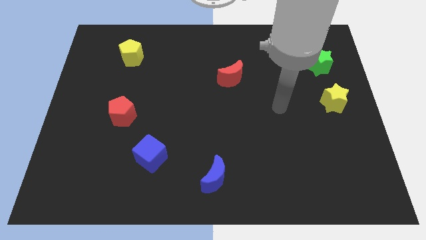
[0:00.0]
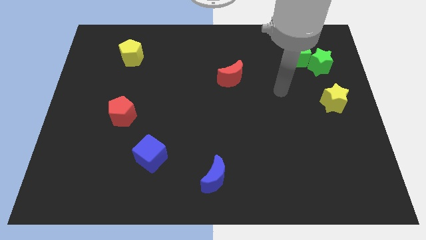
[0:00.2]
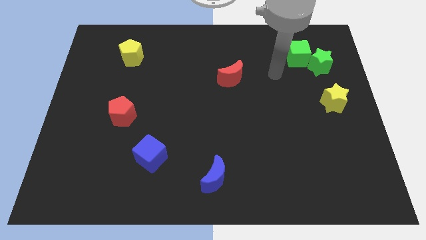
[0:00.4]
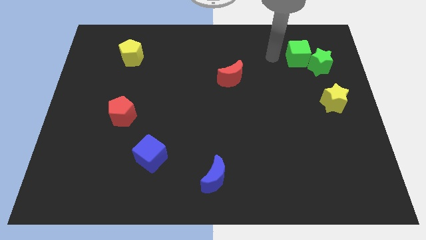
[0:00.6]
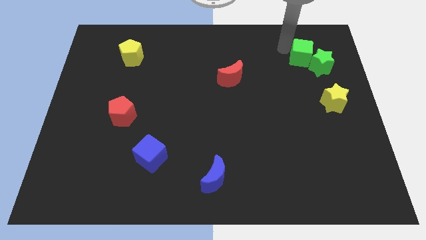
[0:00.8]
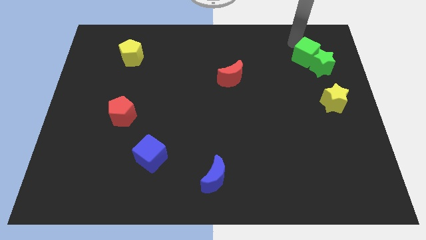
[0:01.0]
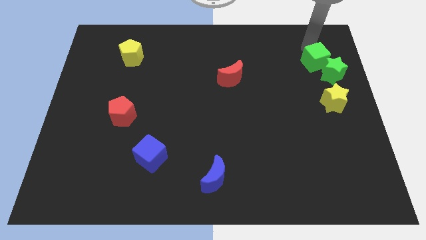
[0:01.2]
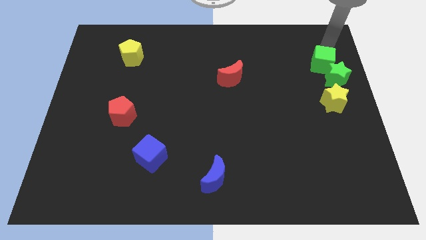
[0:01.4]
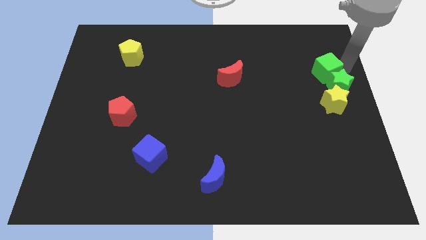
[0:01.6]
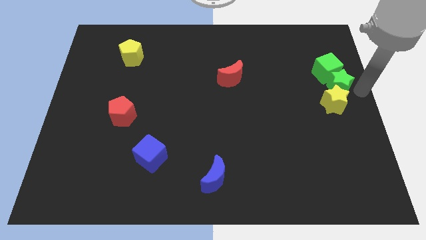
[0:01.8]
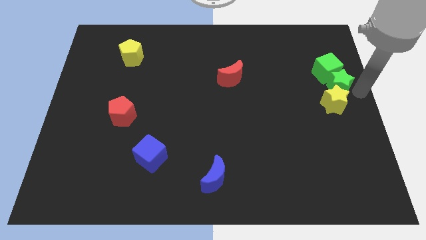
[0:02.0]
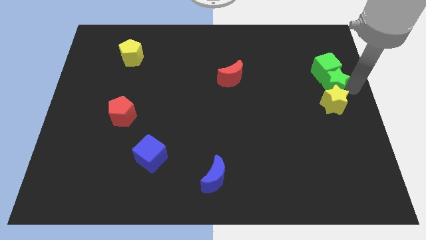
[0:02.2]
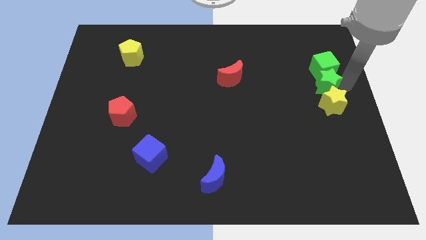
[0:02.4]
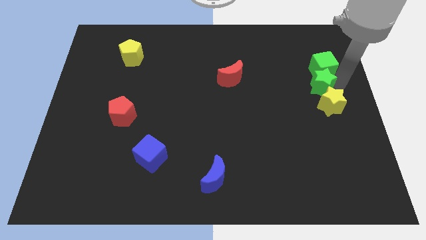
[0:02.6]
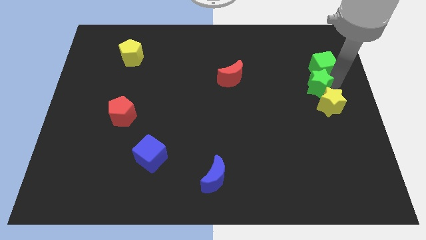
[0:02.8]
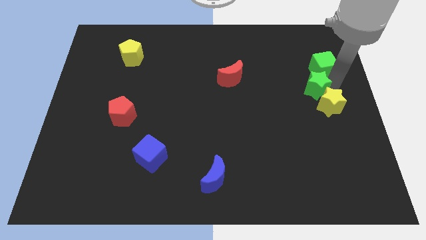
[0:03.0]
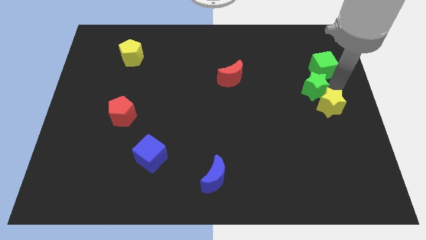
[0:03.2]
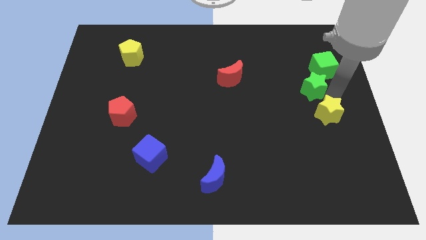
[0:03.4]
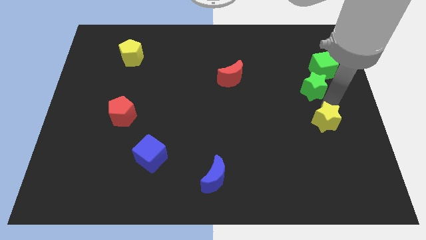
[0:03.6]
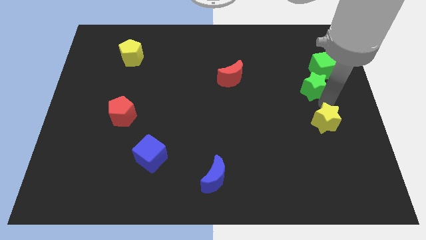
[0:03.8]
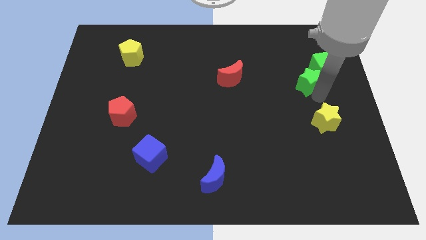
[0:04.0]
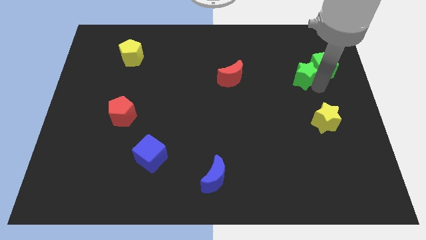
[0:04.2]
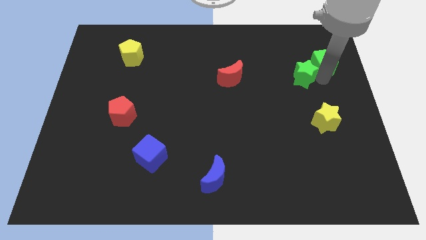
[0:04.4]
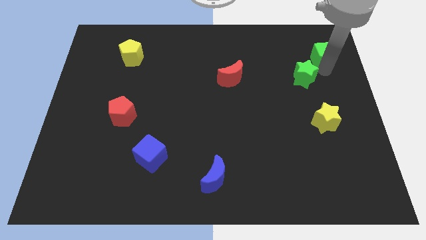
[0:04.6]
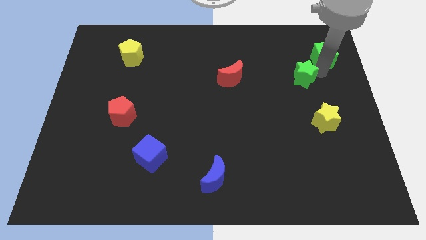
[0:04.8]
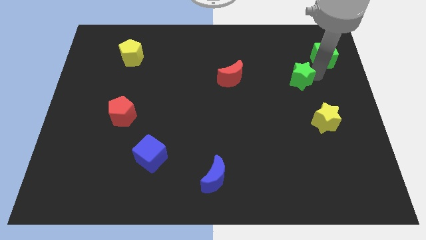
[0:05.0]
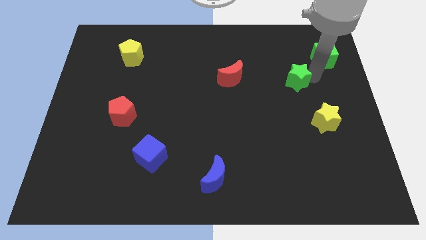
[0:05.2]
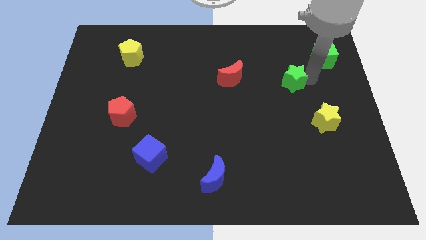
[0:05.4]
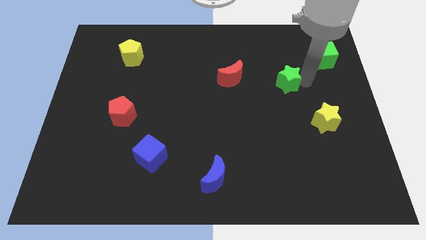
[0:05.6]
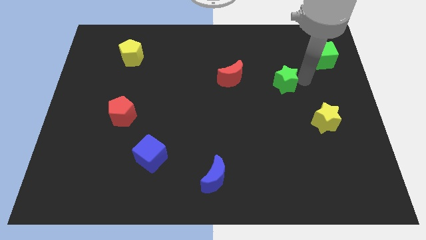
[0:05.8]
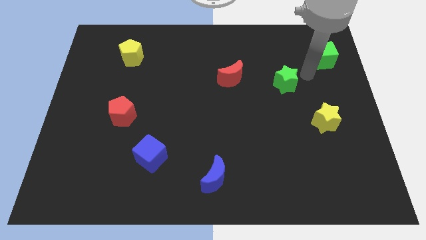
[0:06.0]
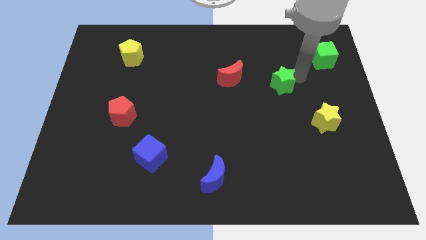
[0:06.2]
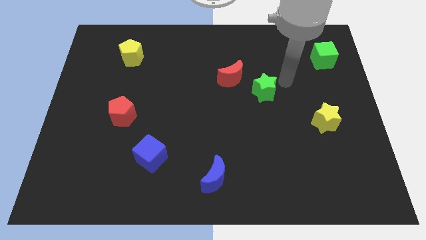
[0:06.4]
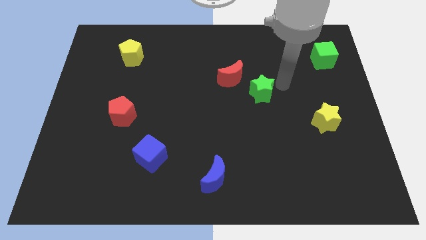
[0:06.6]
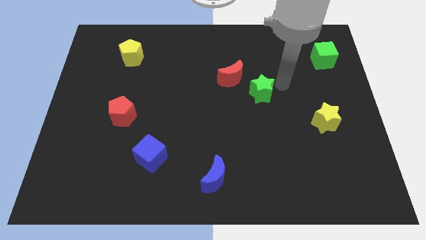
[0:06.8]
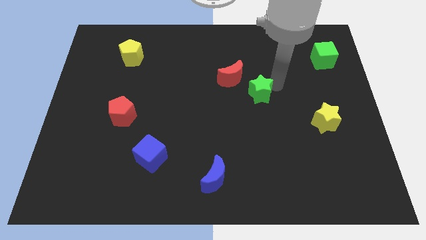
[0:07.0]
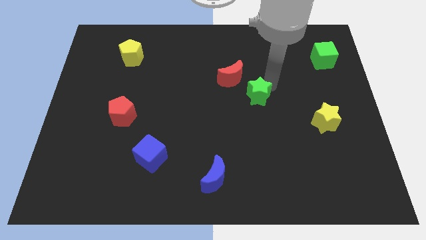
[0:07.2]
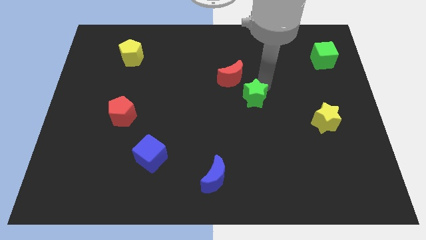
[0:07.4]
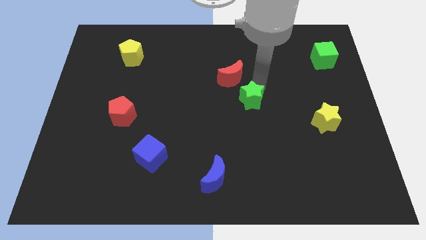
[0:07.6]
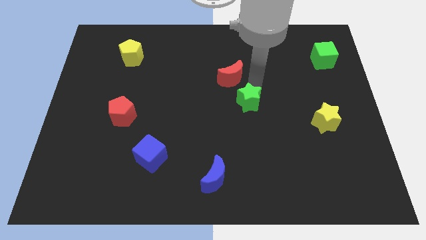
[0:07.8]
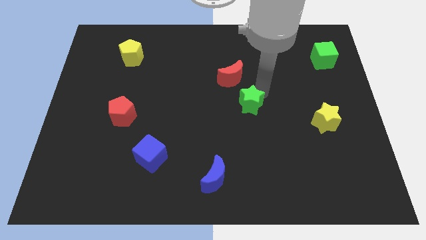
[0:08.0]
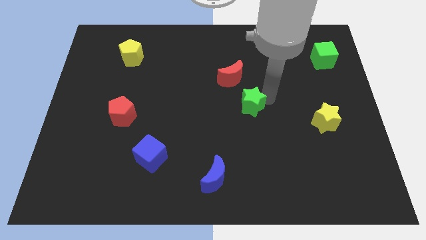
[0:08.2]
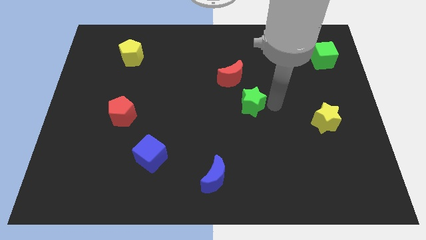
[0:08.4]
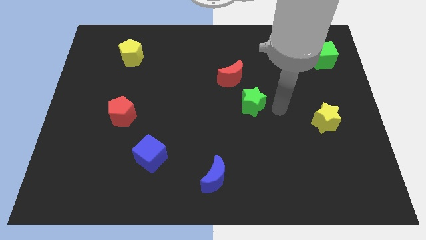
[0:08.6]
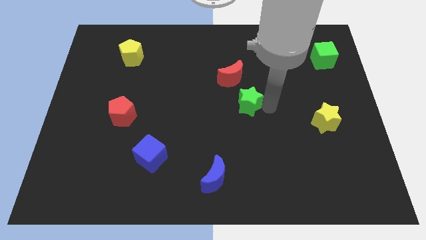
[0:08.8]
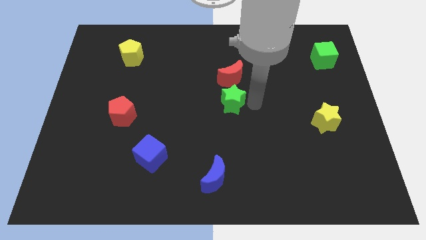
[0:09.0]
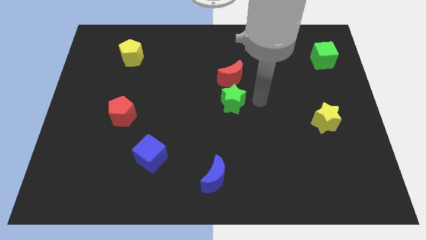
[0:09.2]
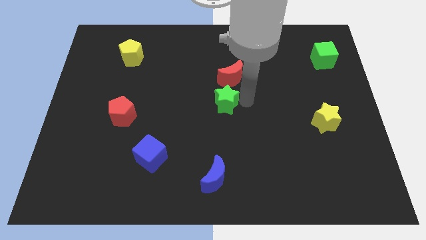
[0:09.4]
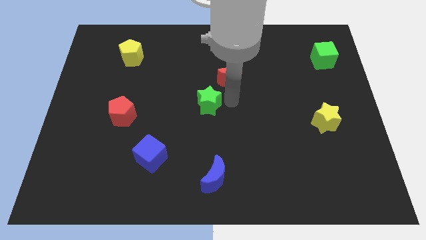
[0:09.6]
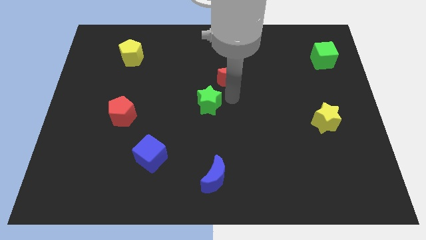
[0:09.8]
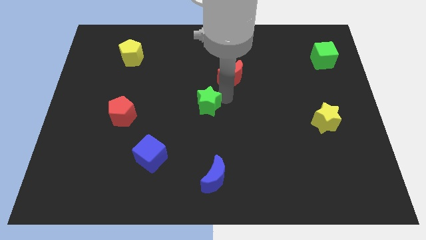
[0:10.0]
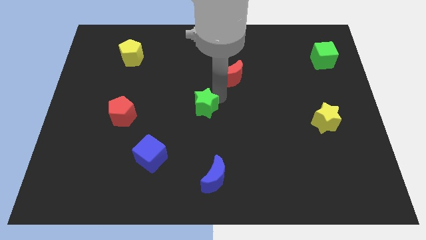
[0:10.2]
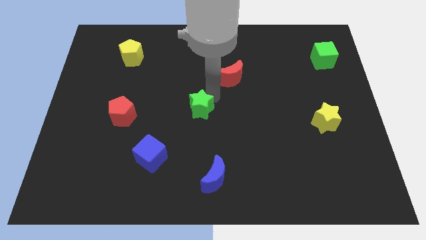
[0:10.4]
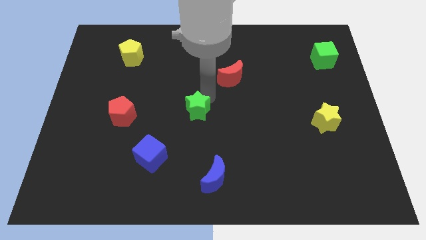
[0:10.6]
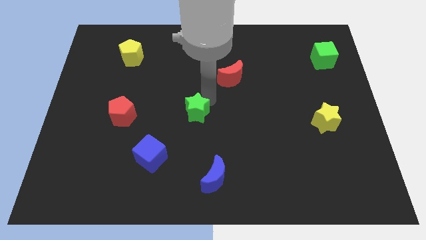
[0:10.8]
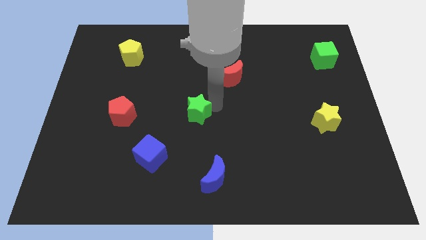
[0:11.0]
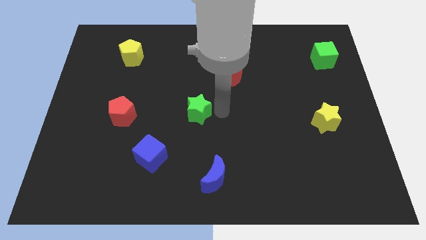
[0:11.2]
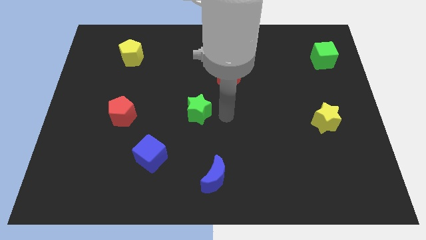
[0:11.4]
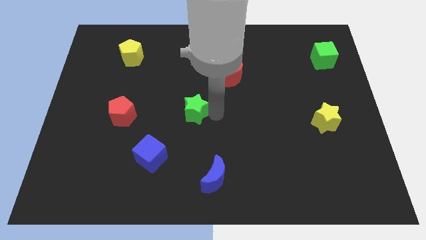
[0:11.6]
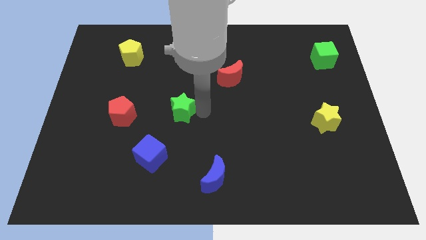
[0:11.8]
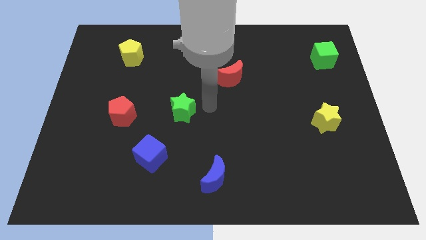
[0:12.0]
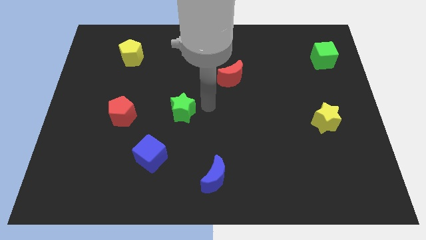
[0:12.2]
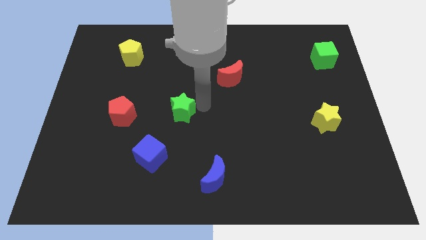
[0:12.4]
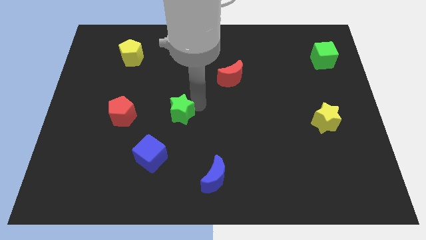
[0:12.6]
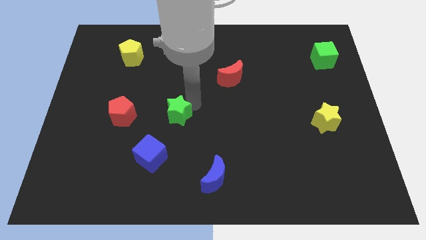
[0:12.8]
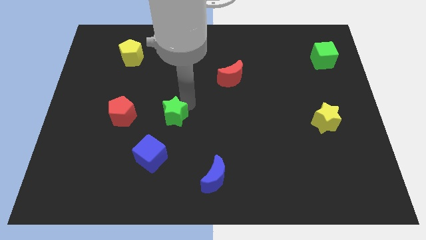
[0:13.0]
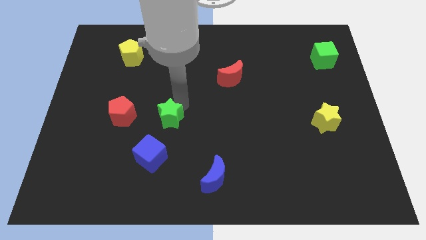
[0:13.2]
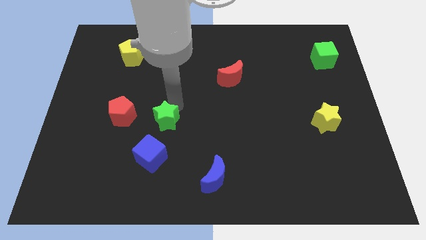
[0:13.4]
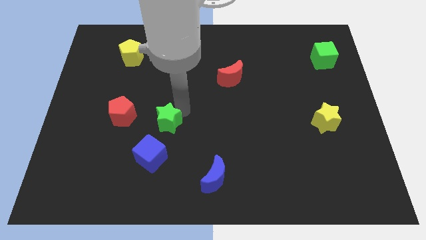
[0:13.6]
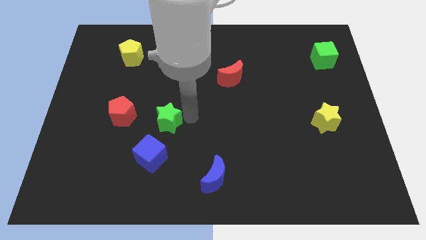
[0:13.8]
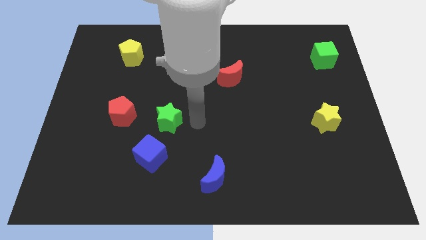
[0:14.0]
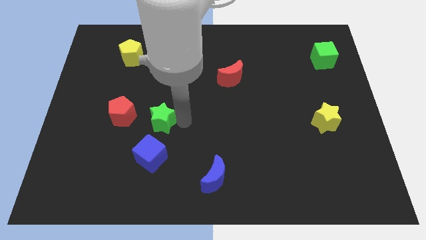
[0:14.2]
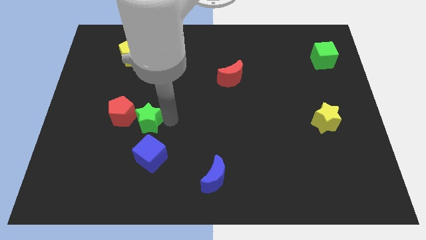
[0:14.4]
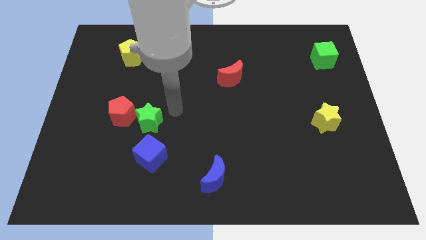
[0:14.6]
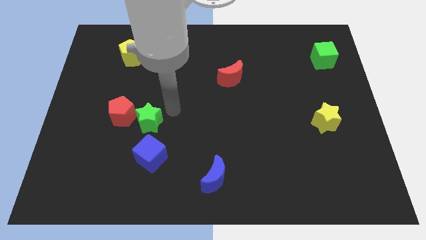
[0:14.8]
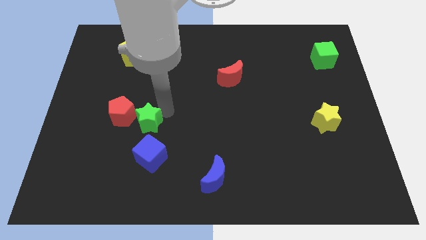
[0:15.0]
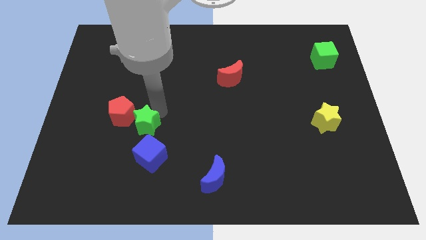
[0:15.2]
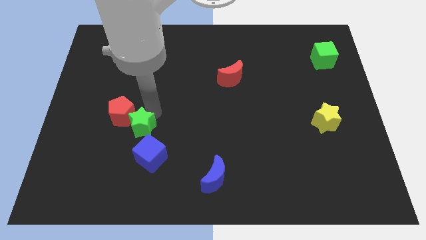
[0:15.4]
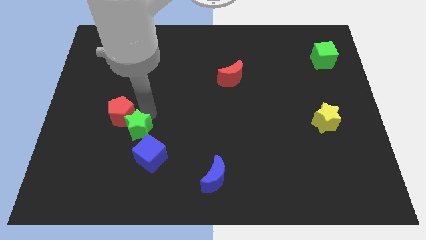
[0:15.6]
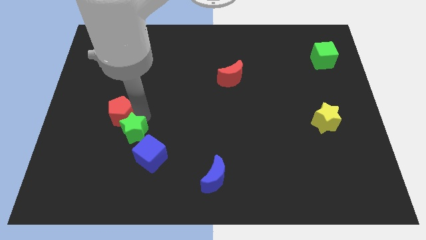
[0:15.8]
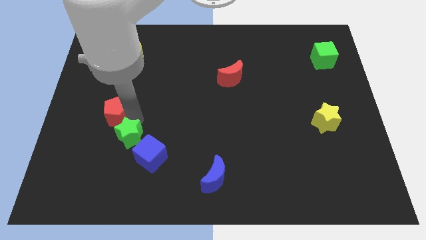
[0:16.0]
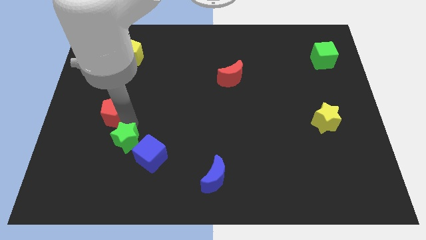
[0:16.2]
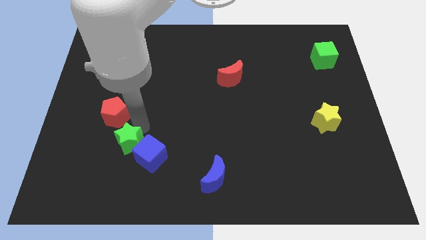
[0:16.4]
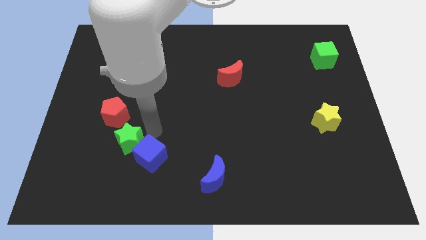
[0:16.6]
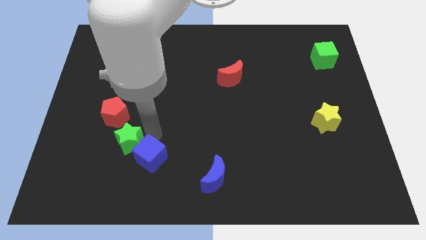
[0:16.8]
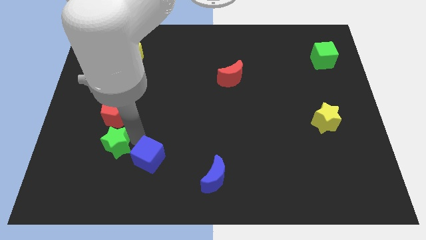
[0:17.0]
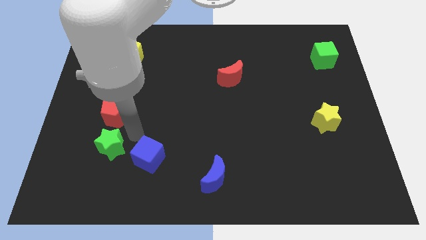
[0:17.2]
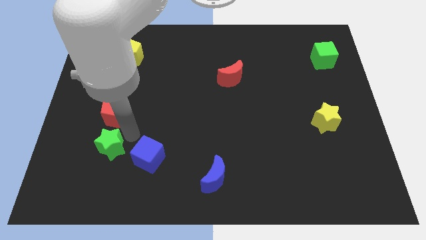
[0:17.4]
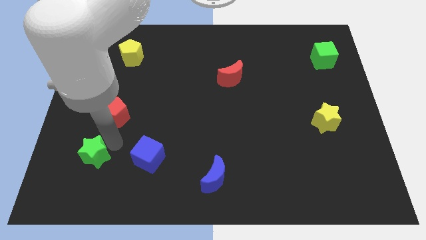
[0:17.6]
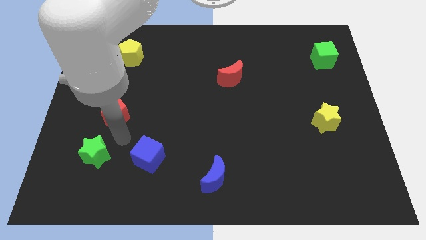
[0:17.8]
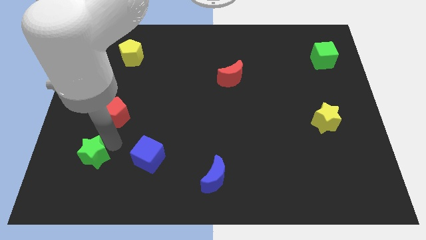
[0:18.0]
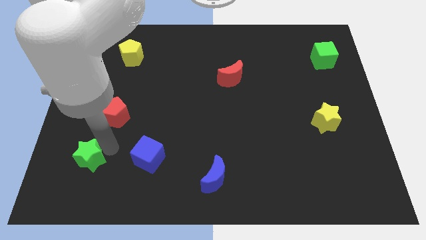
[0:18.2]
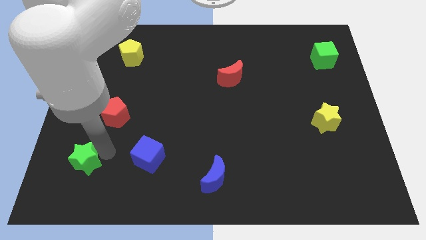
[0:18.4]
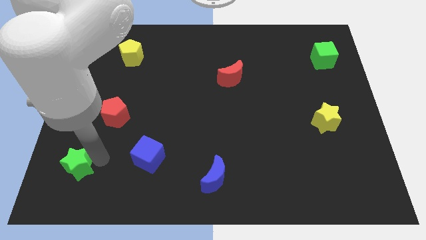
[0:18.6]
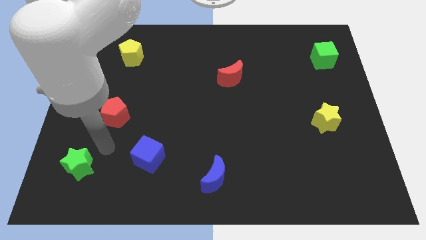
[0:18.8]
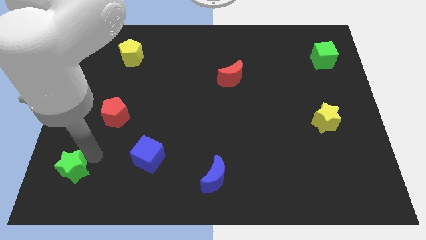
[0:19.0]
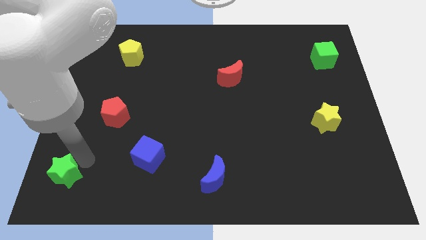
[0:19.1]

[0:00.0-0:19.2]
slide the green star to the lower left corner
